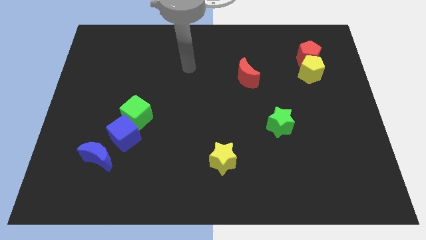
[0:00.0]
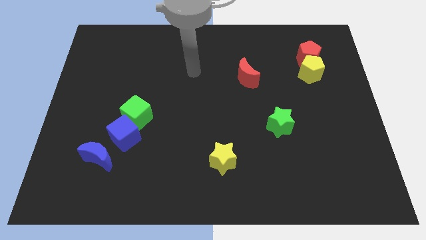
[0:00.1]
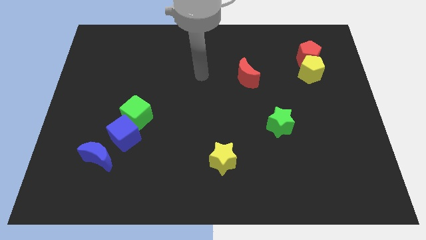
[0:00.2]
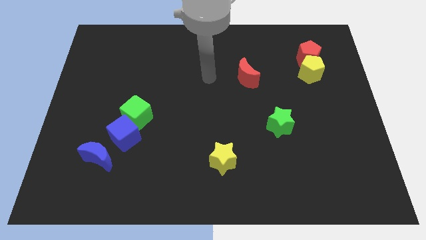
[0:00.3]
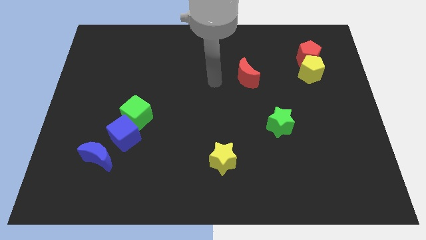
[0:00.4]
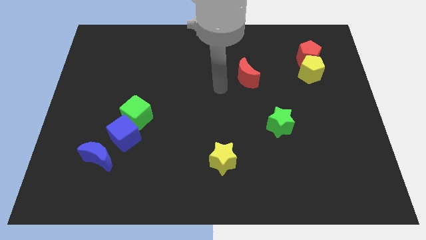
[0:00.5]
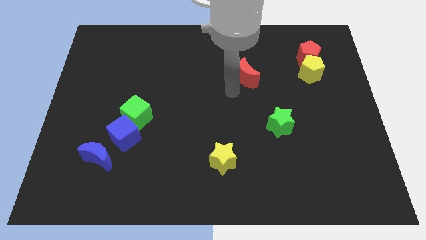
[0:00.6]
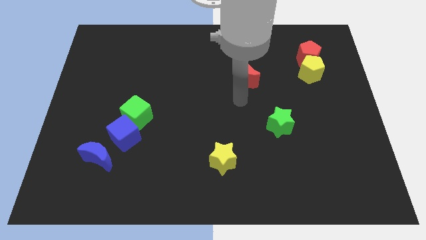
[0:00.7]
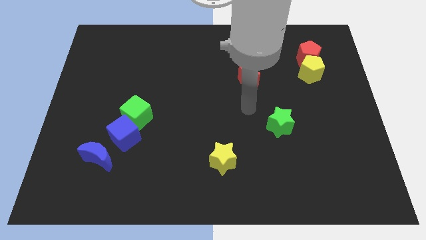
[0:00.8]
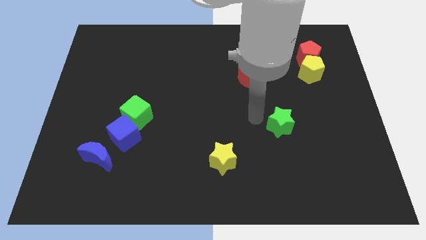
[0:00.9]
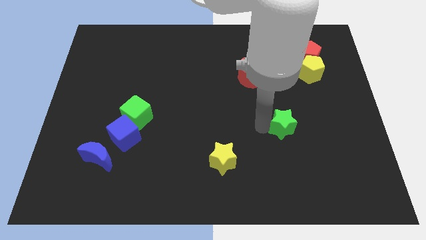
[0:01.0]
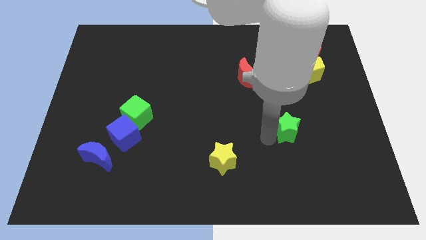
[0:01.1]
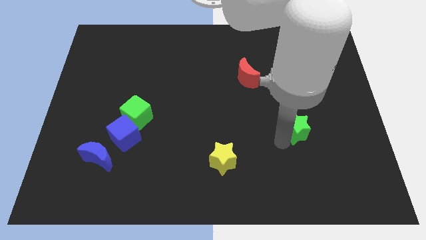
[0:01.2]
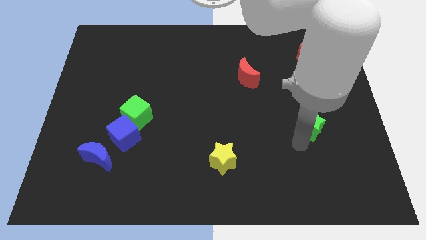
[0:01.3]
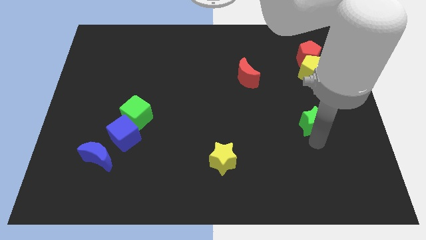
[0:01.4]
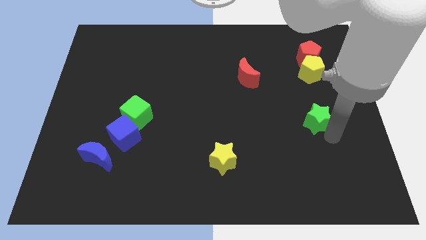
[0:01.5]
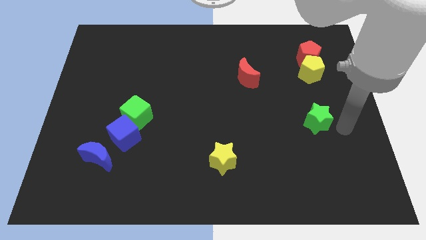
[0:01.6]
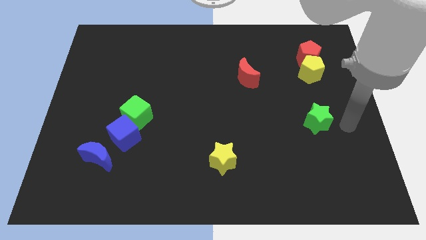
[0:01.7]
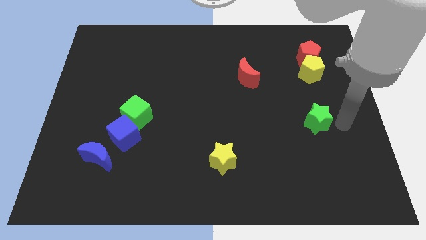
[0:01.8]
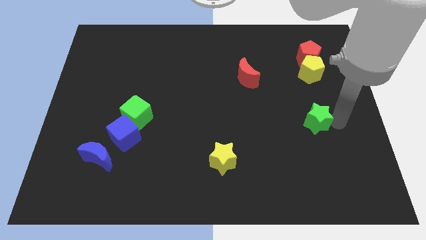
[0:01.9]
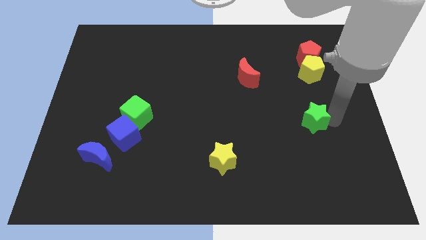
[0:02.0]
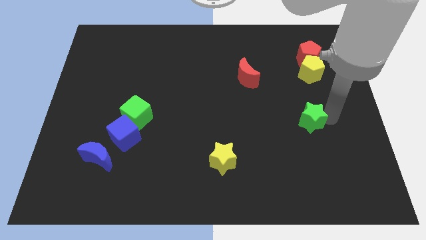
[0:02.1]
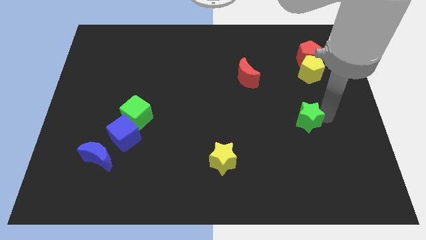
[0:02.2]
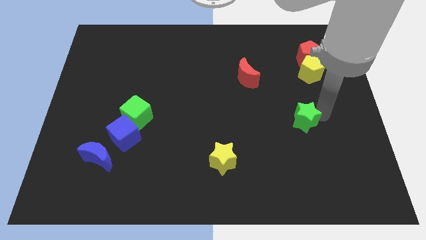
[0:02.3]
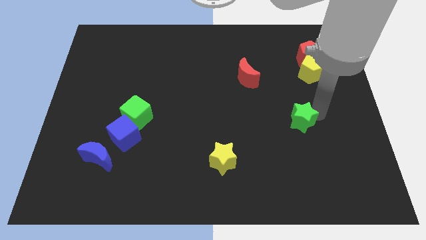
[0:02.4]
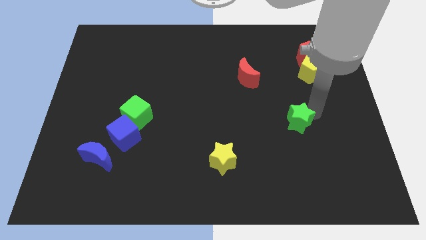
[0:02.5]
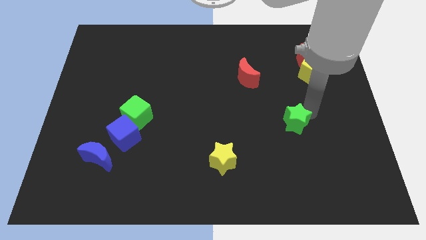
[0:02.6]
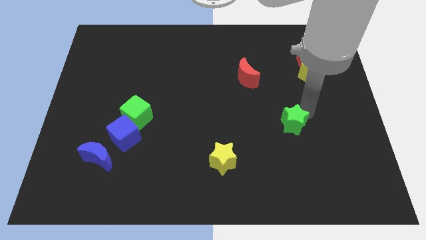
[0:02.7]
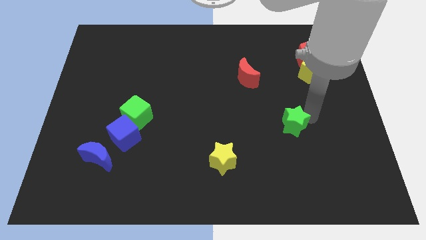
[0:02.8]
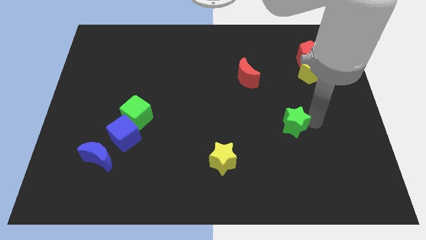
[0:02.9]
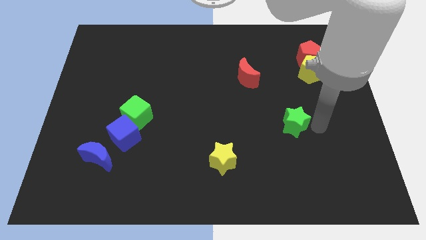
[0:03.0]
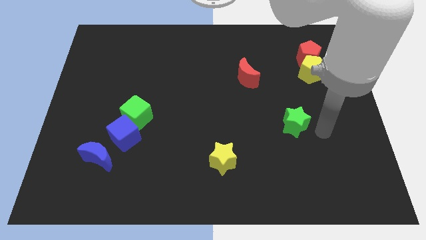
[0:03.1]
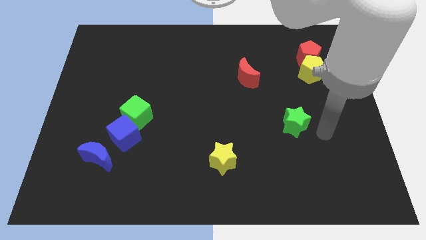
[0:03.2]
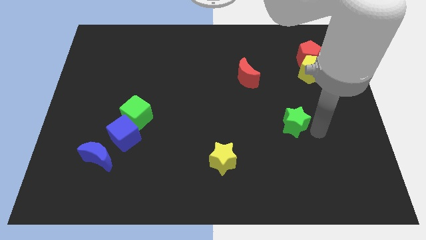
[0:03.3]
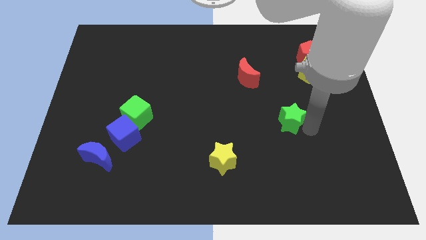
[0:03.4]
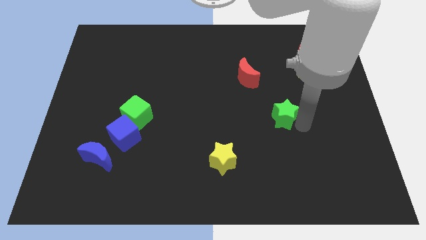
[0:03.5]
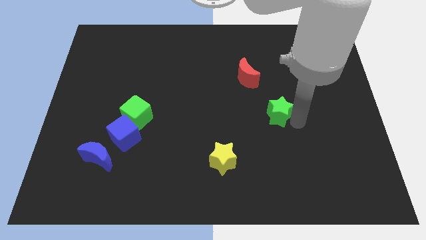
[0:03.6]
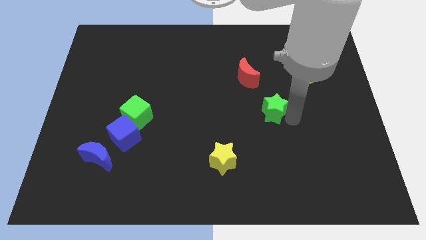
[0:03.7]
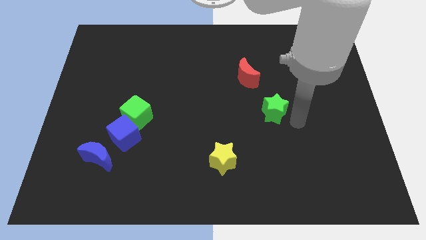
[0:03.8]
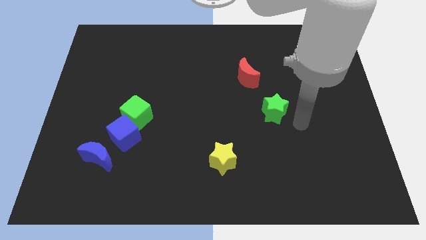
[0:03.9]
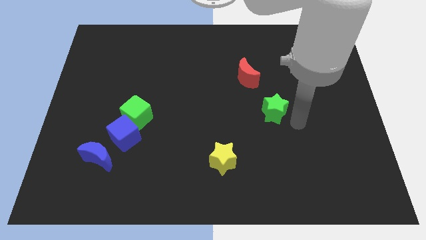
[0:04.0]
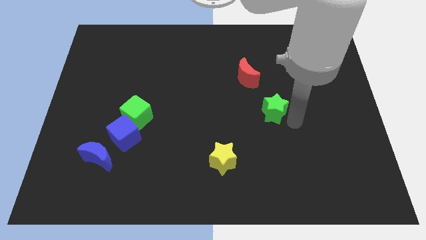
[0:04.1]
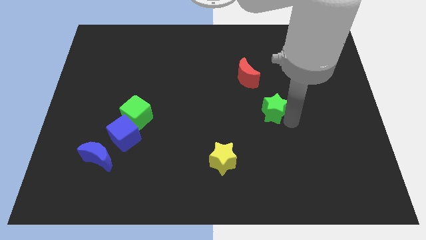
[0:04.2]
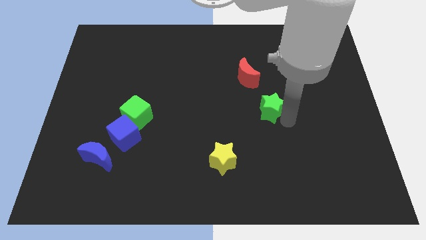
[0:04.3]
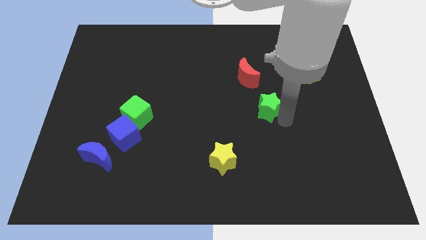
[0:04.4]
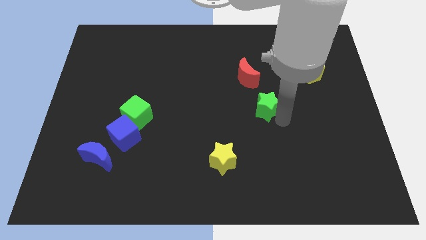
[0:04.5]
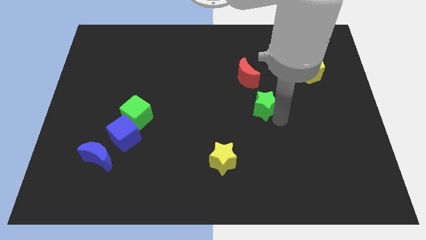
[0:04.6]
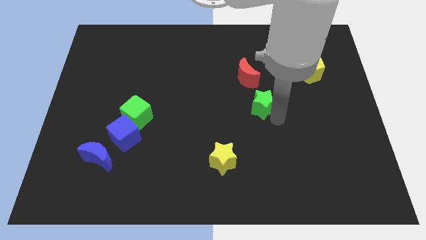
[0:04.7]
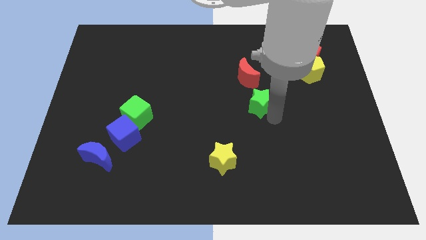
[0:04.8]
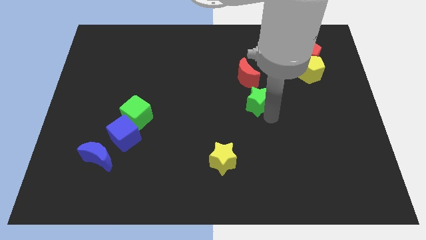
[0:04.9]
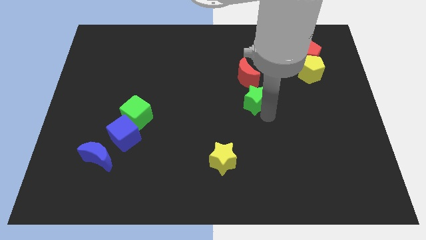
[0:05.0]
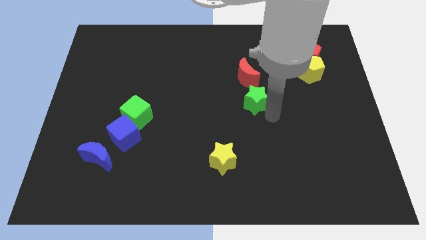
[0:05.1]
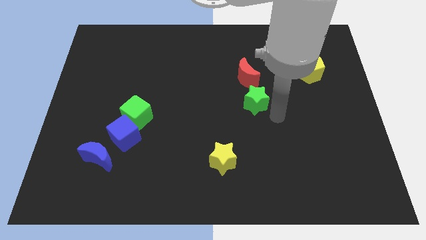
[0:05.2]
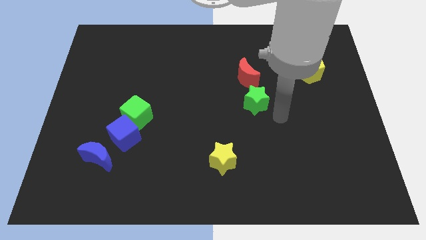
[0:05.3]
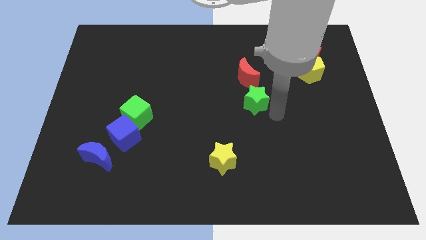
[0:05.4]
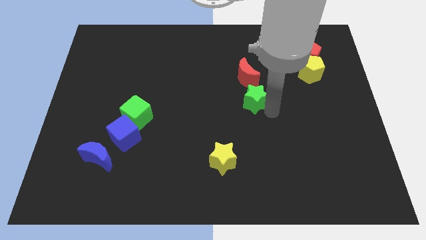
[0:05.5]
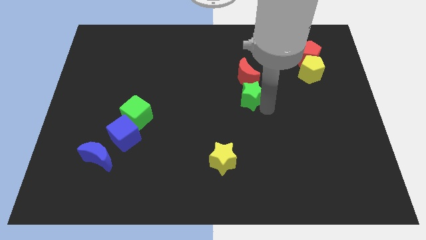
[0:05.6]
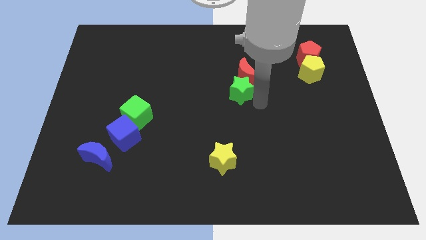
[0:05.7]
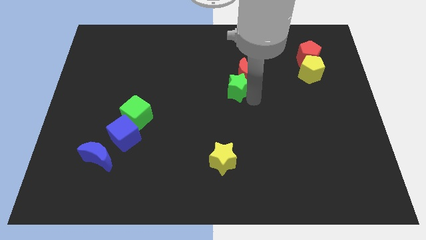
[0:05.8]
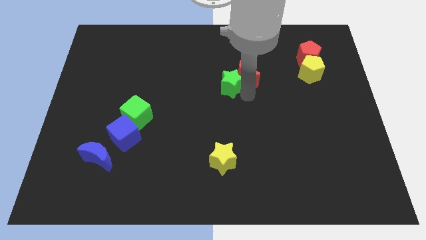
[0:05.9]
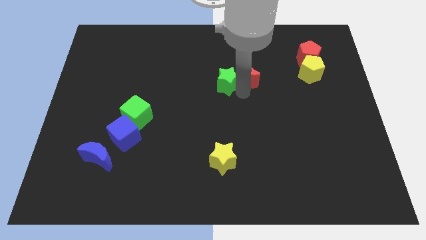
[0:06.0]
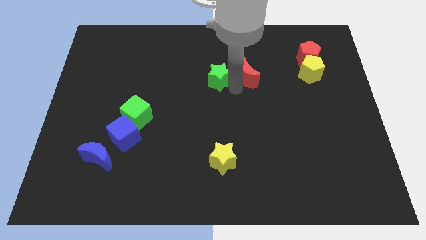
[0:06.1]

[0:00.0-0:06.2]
move the green star upwards and to the left

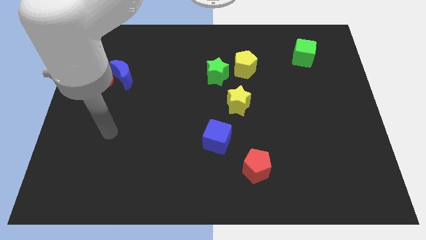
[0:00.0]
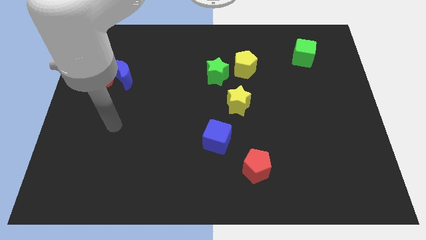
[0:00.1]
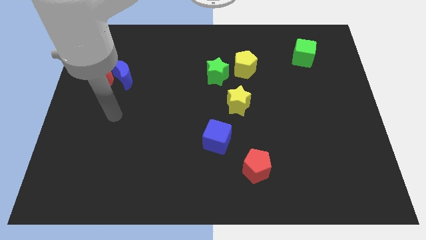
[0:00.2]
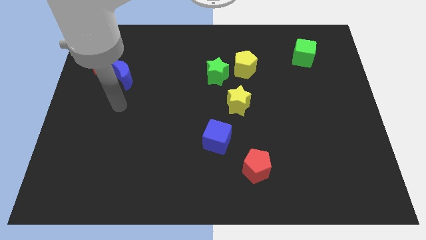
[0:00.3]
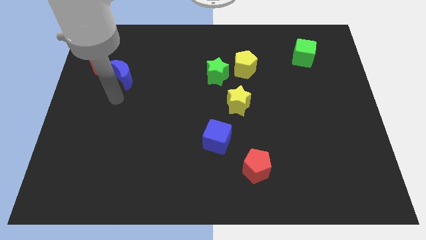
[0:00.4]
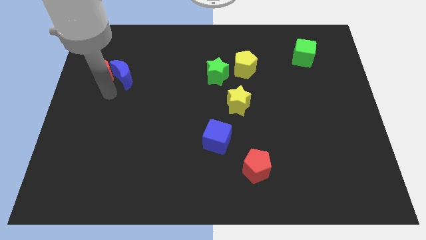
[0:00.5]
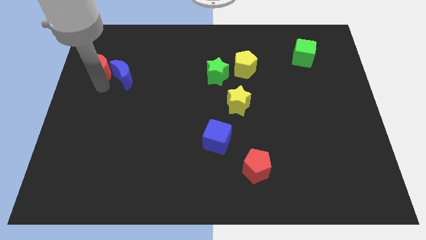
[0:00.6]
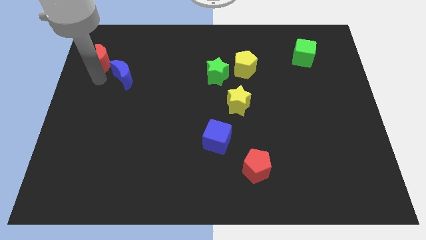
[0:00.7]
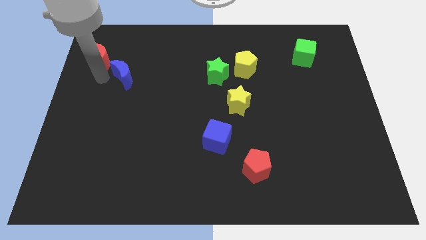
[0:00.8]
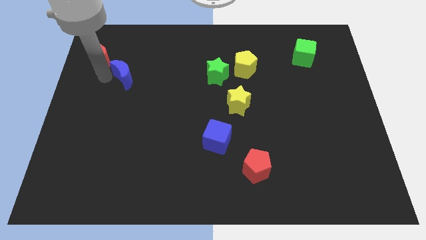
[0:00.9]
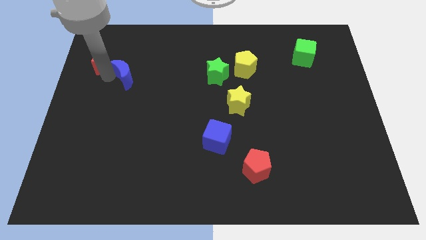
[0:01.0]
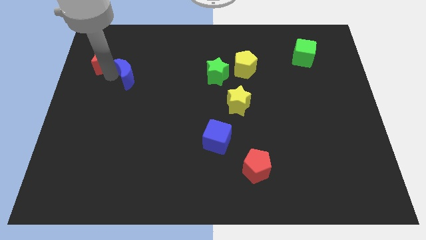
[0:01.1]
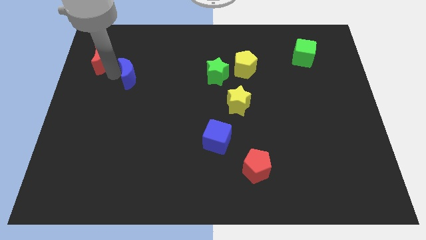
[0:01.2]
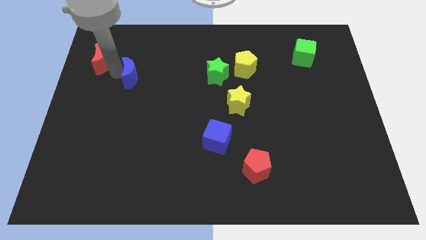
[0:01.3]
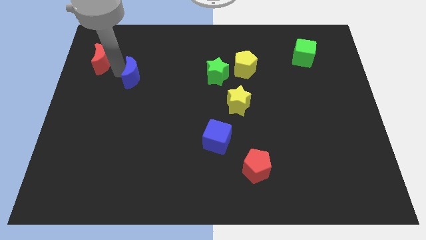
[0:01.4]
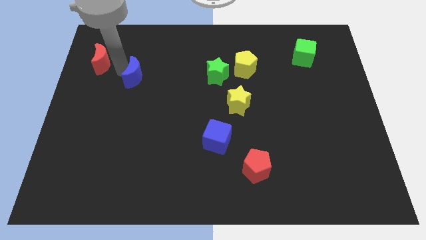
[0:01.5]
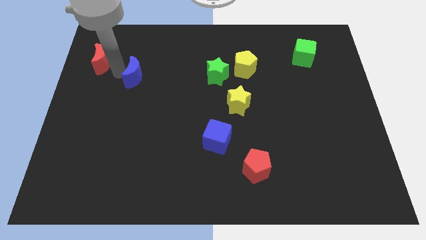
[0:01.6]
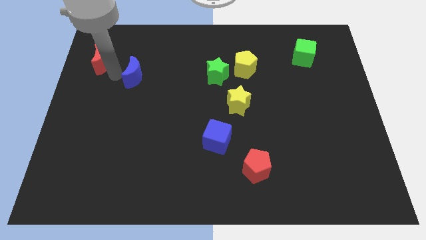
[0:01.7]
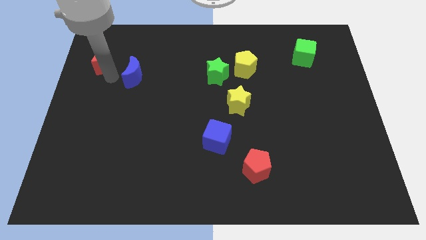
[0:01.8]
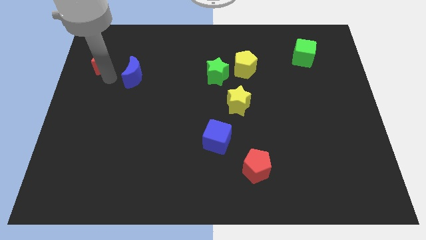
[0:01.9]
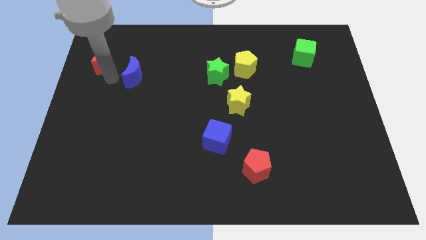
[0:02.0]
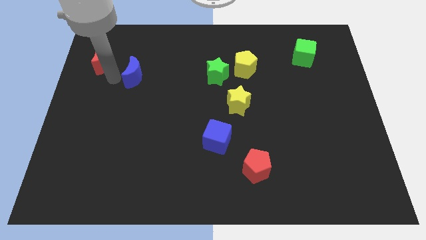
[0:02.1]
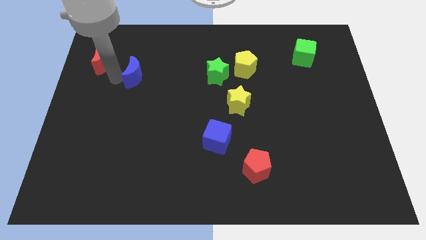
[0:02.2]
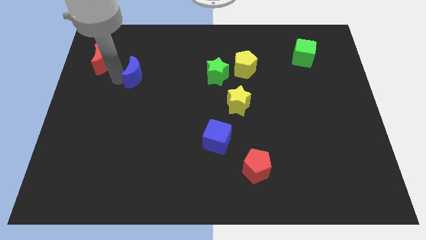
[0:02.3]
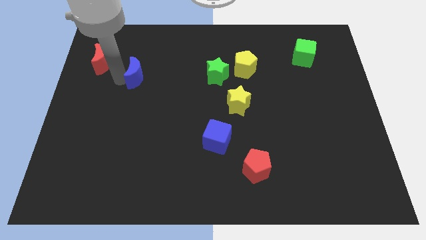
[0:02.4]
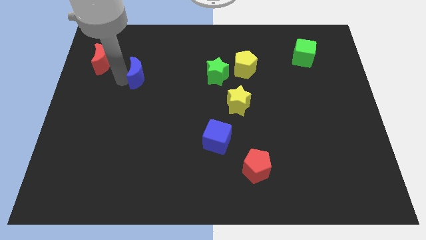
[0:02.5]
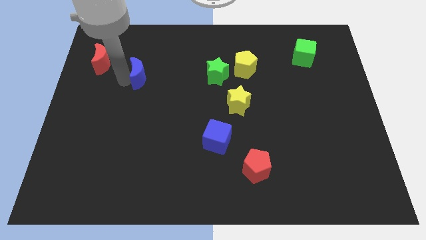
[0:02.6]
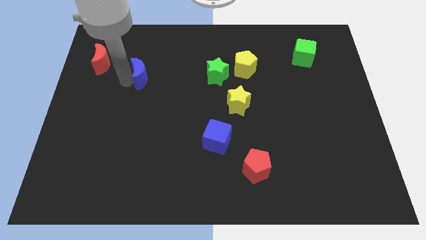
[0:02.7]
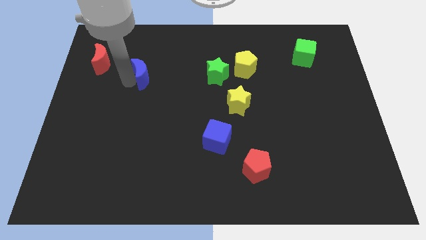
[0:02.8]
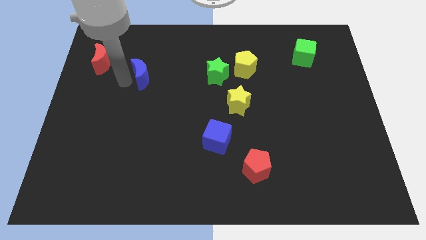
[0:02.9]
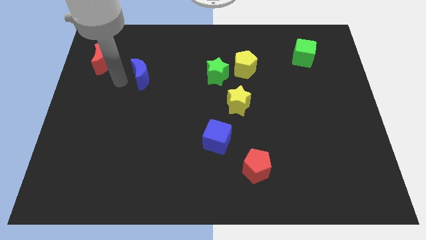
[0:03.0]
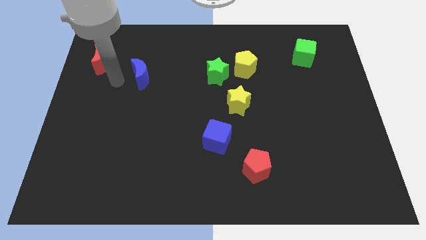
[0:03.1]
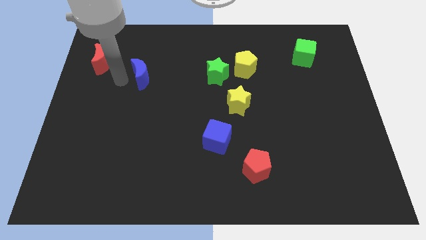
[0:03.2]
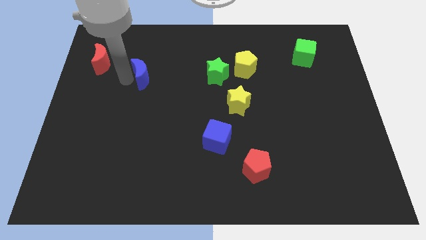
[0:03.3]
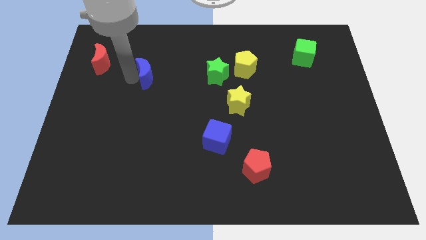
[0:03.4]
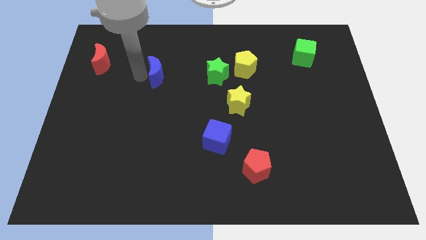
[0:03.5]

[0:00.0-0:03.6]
slightly move the blue moon right
